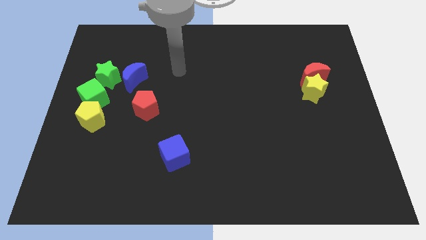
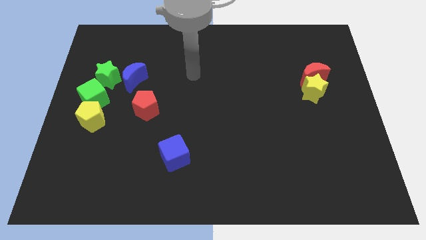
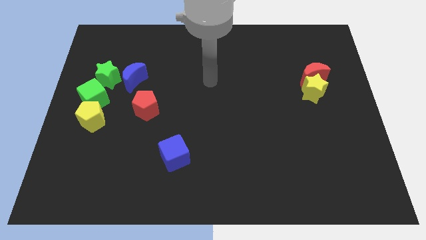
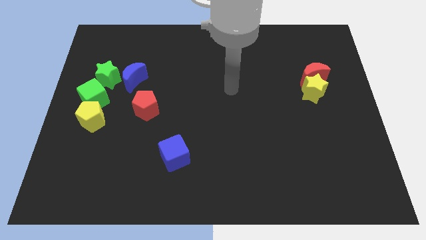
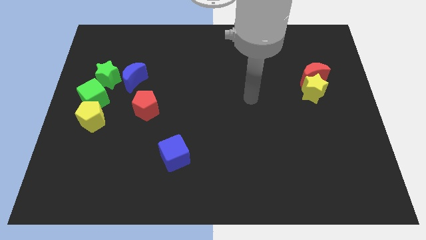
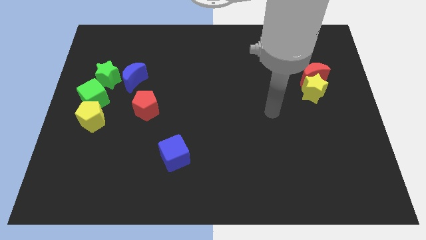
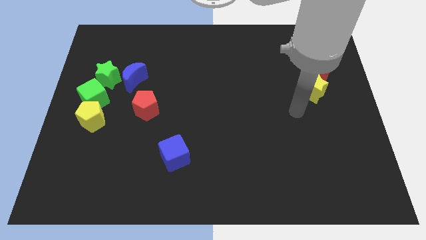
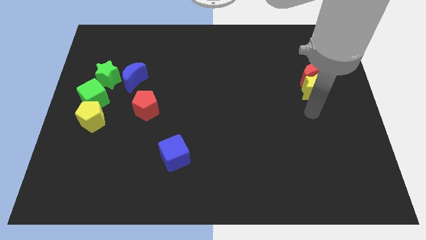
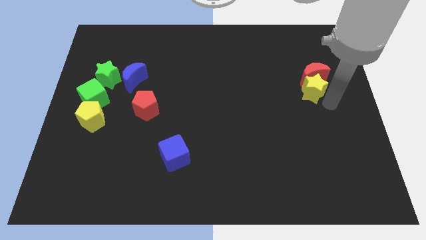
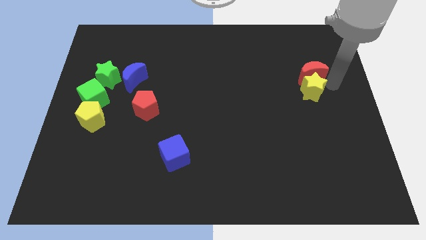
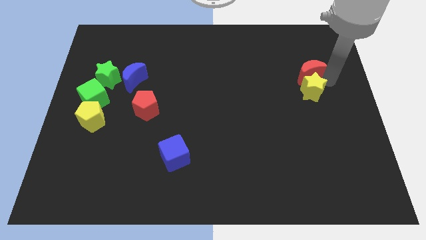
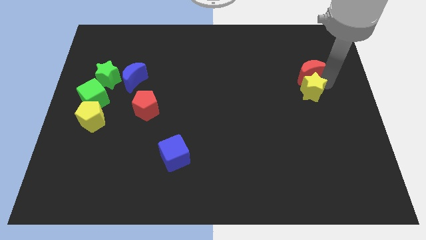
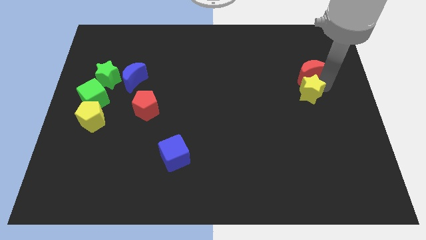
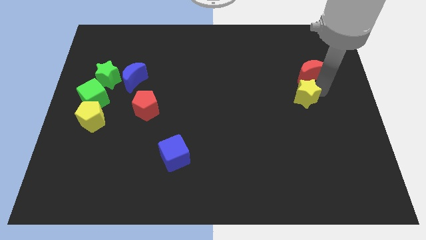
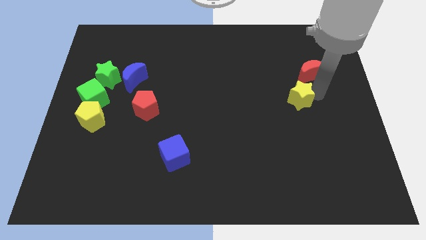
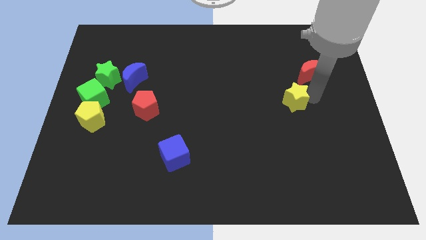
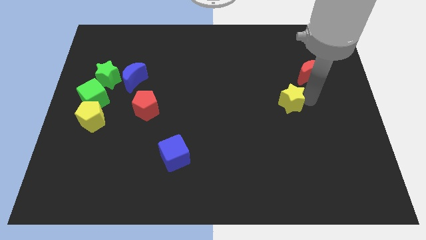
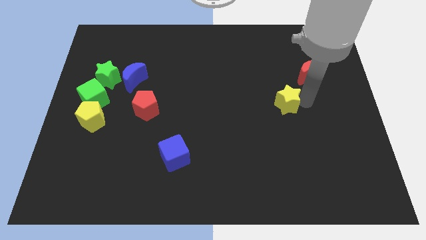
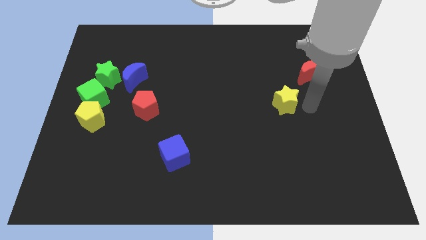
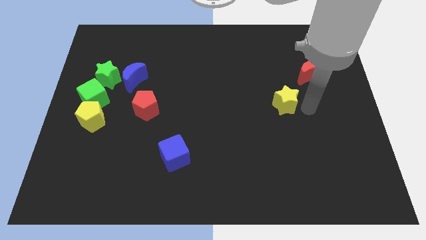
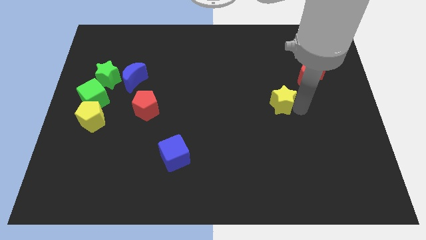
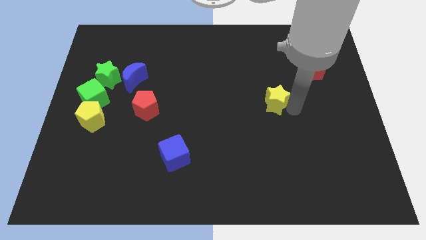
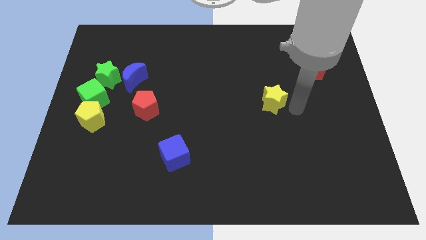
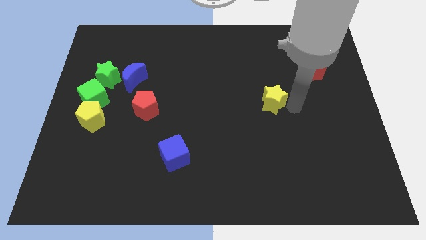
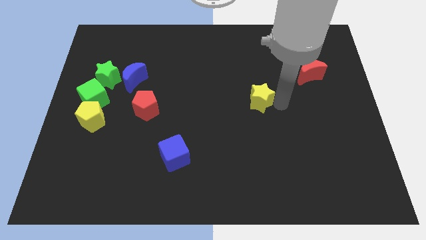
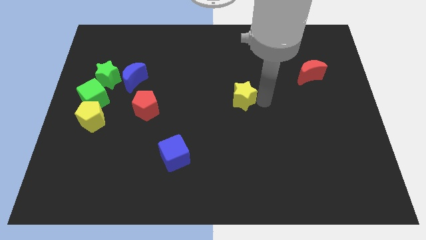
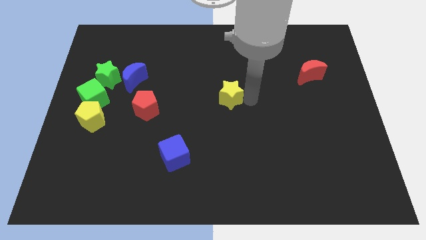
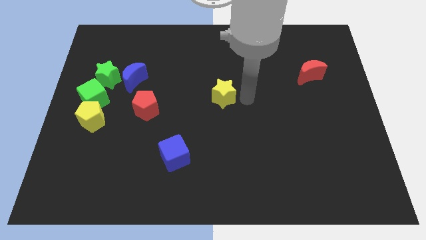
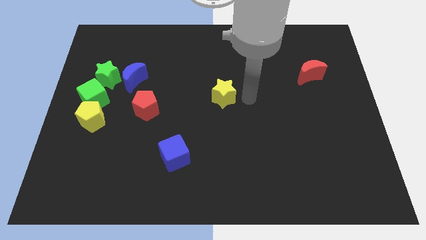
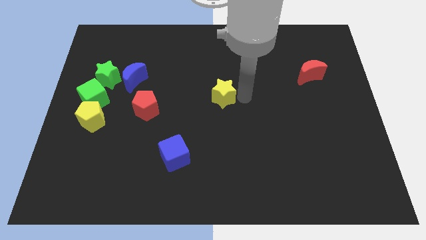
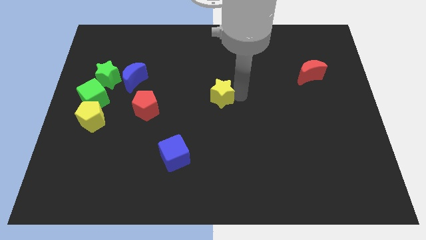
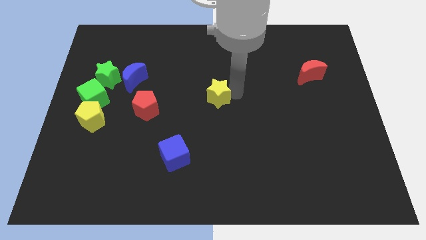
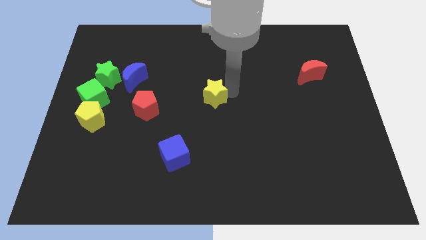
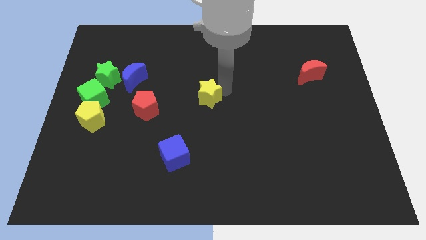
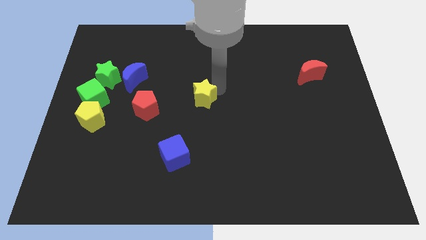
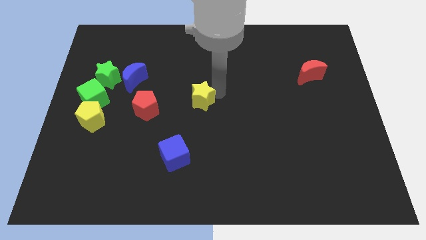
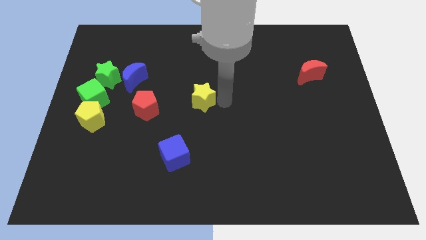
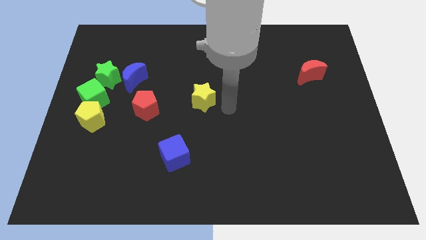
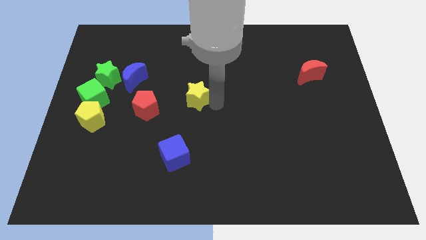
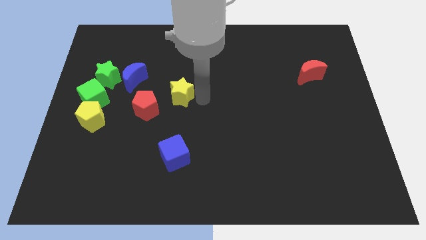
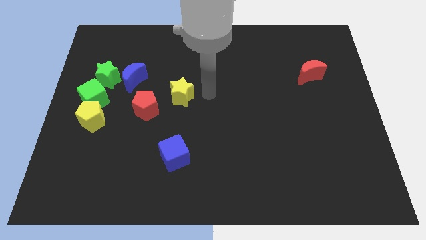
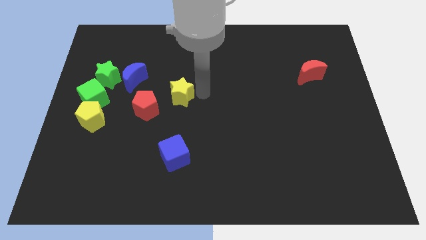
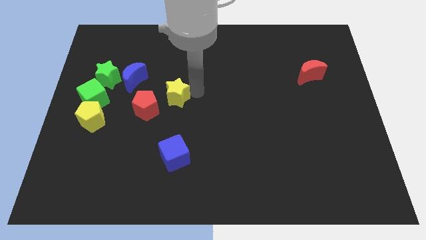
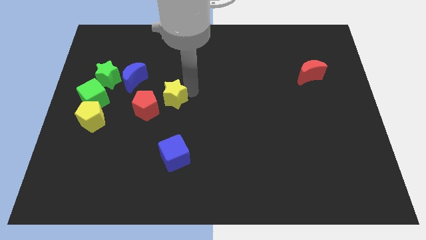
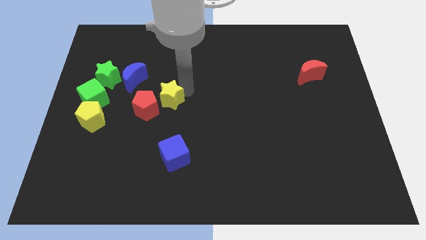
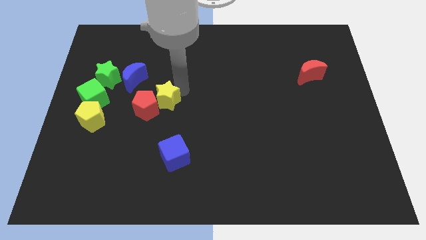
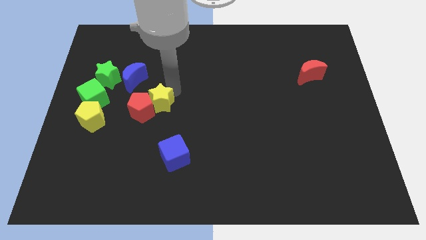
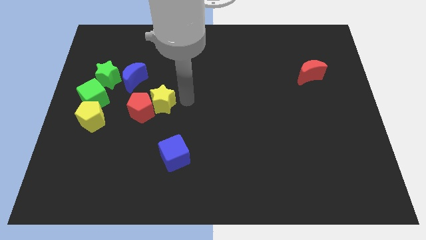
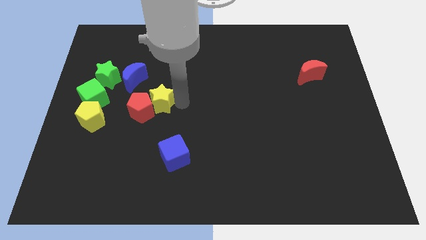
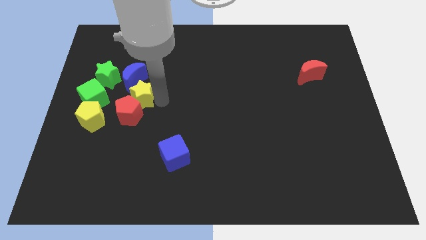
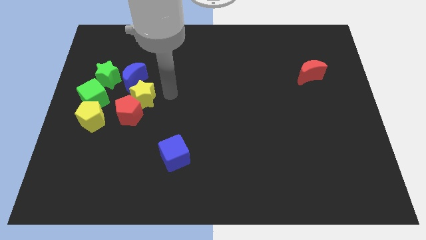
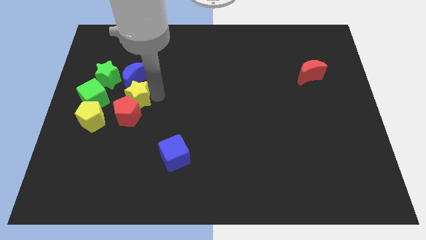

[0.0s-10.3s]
slide the yellow star diagonally up and to the right of the yellow pentagon

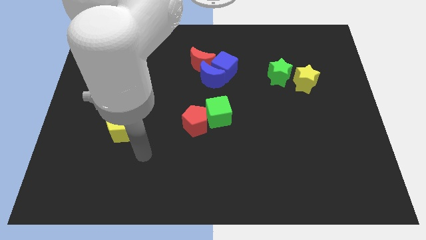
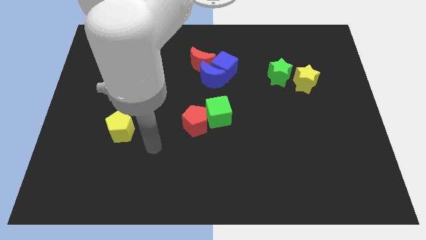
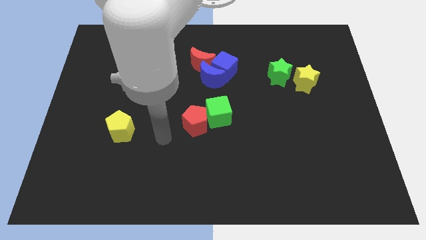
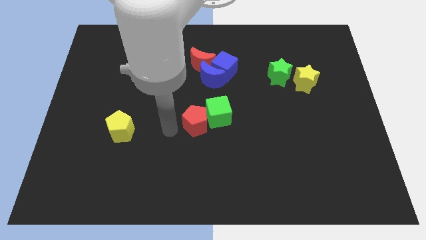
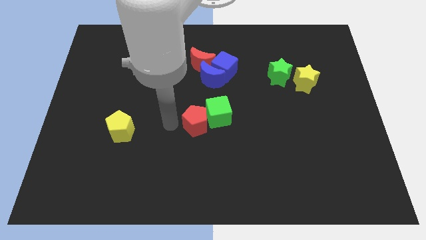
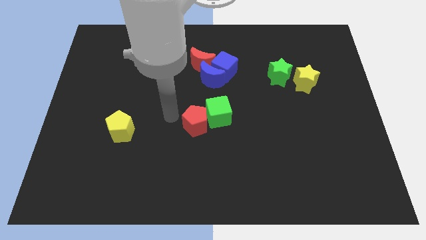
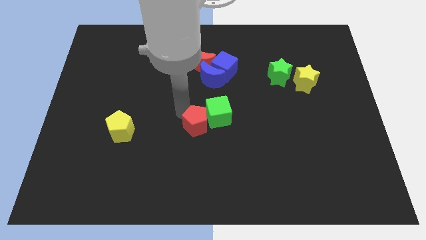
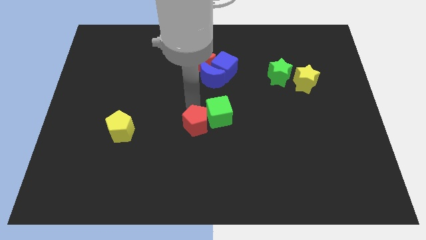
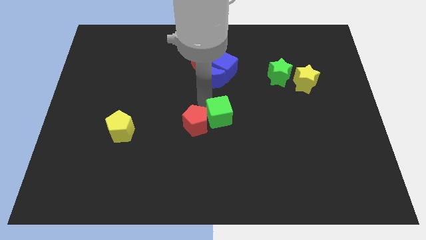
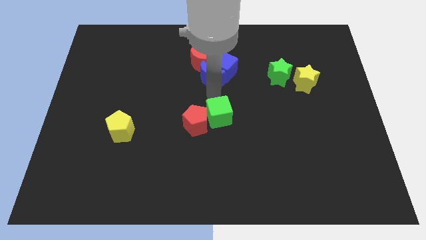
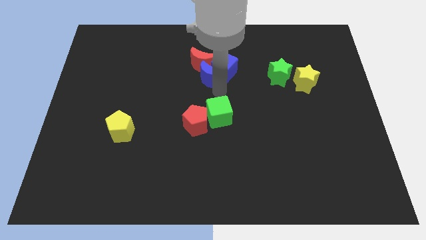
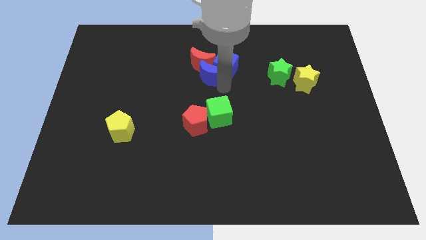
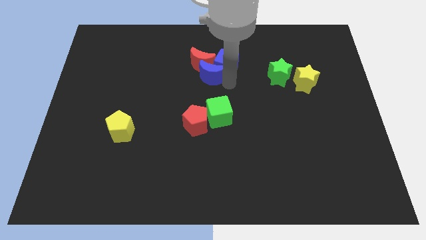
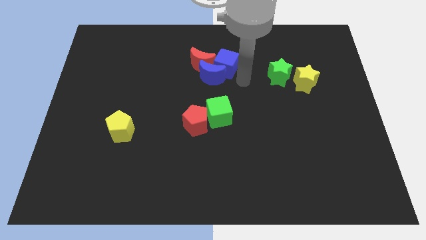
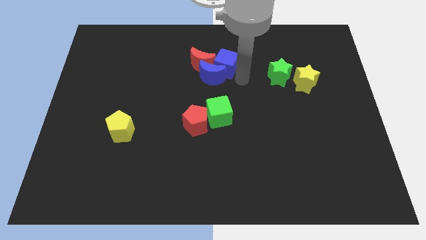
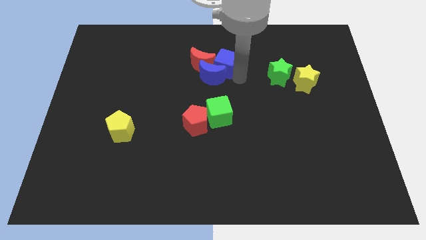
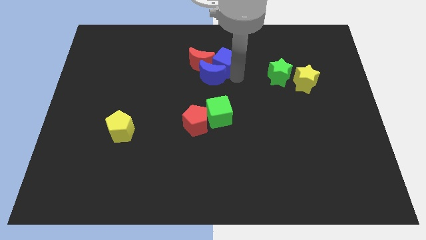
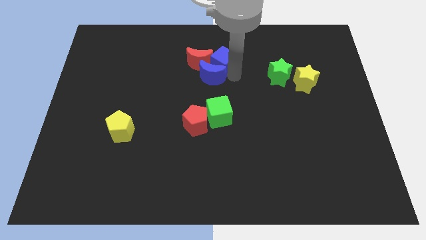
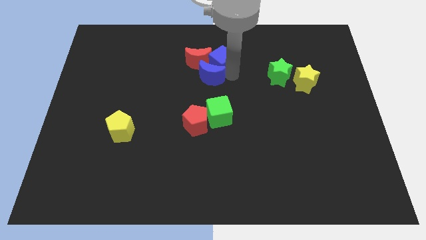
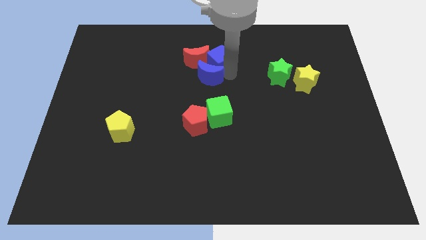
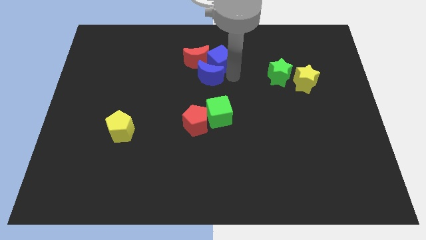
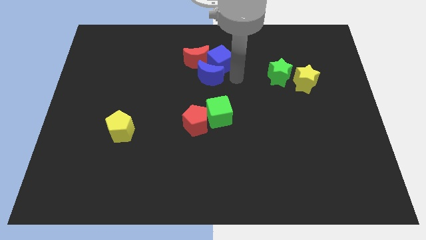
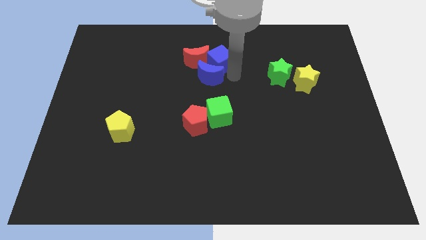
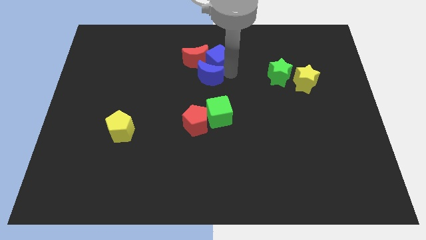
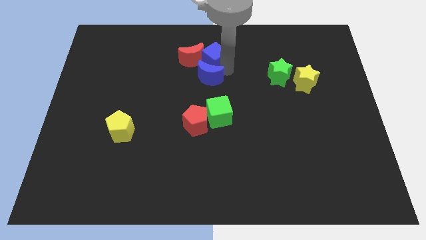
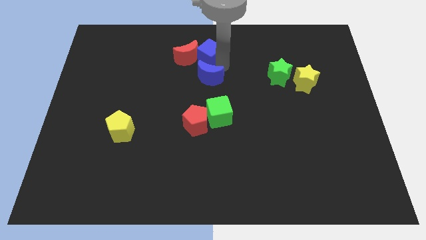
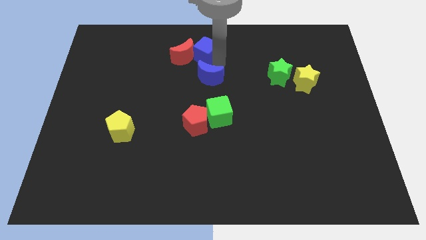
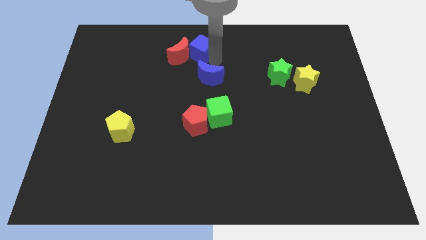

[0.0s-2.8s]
move the blue cube to the top left side of the blue moon
